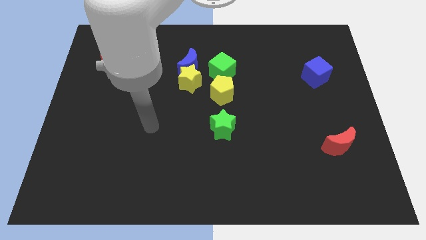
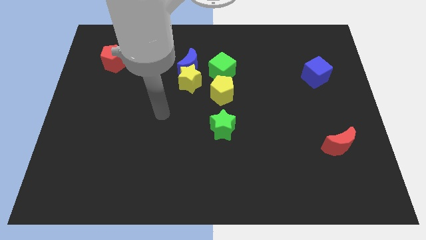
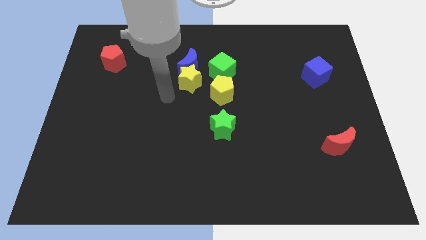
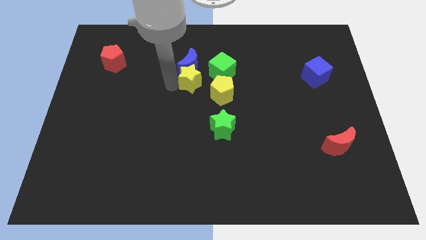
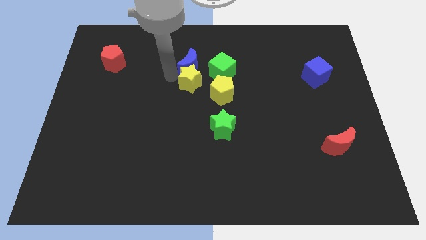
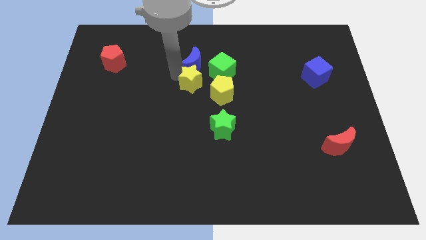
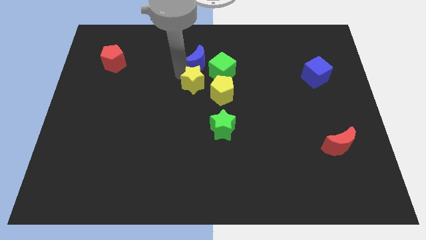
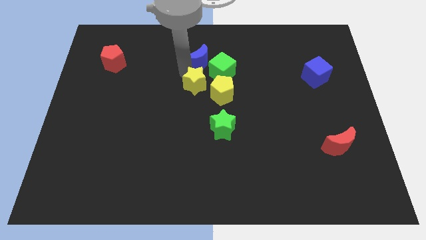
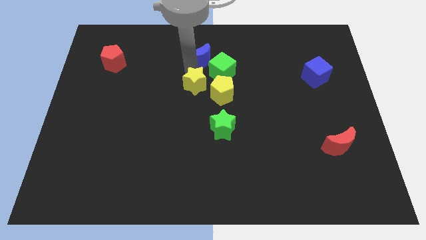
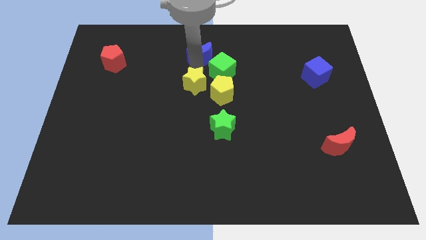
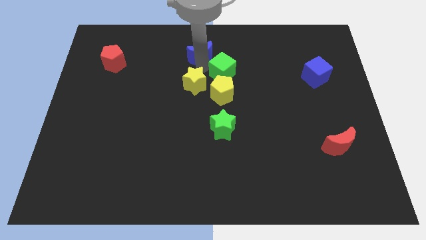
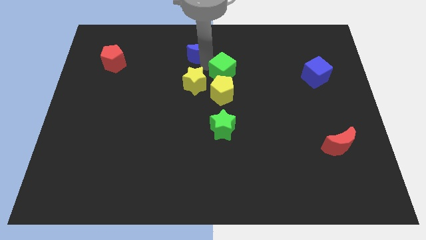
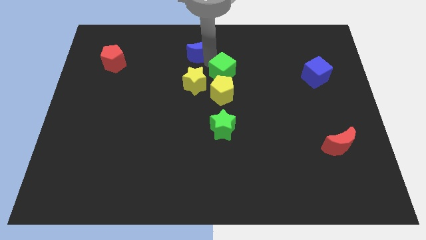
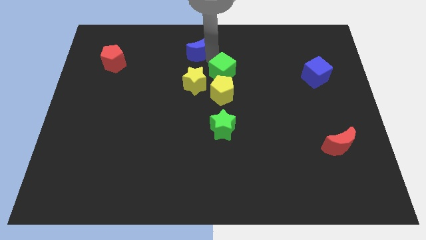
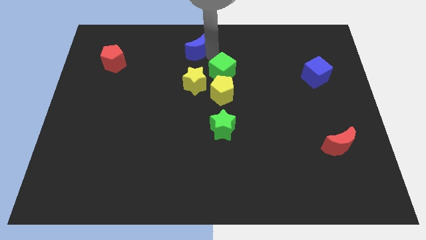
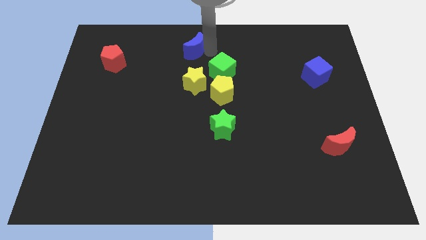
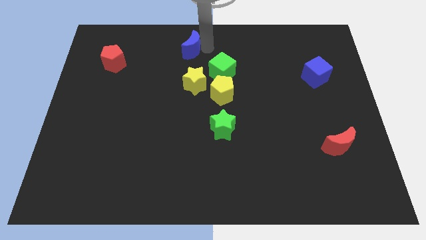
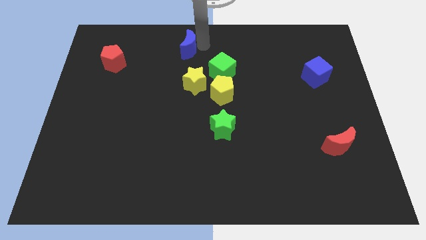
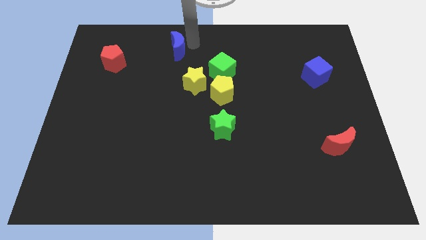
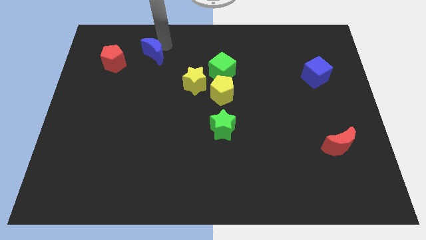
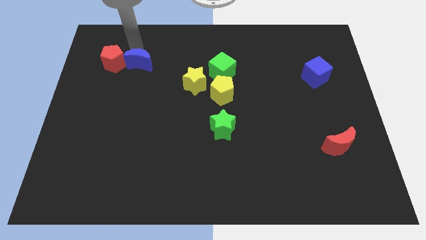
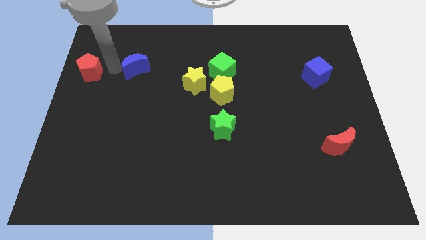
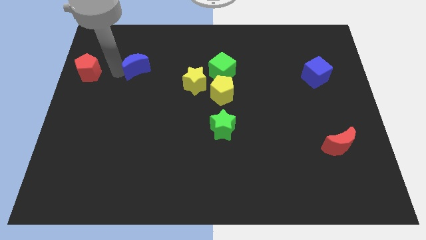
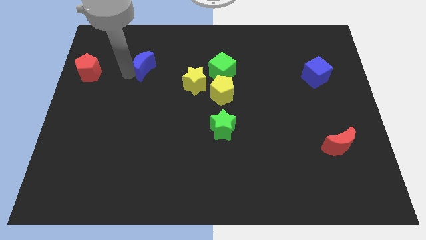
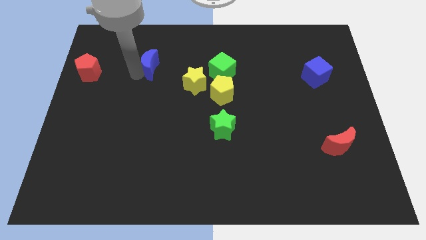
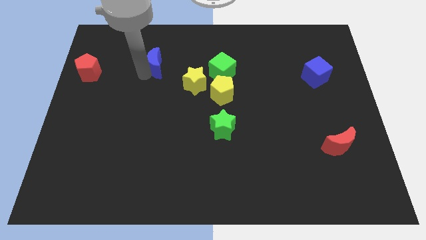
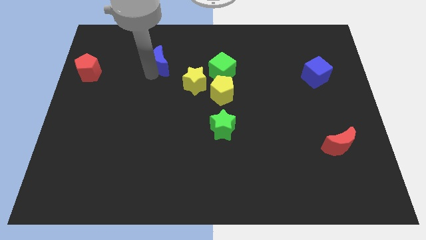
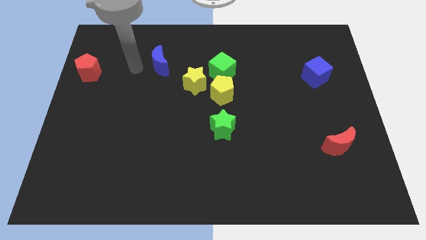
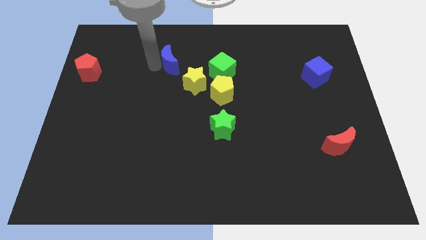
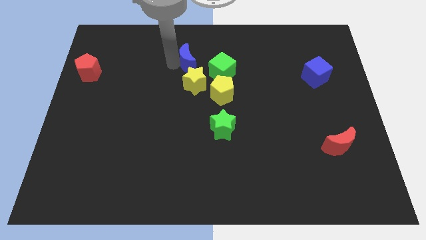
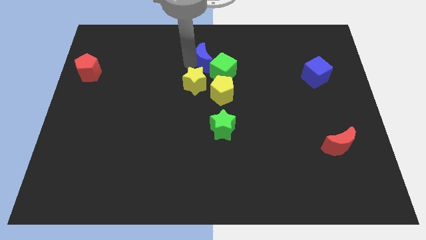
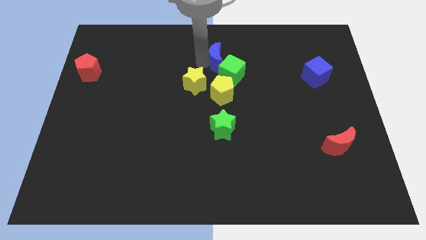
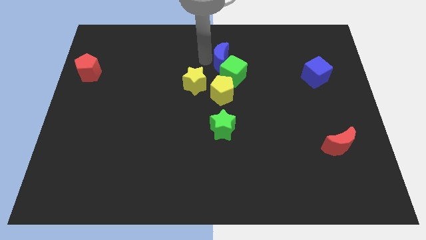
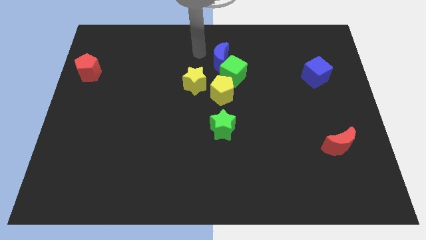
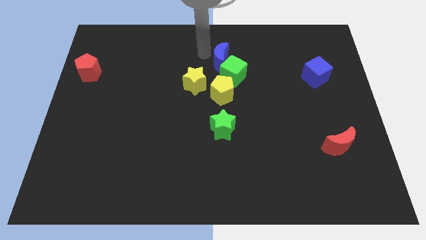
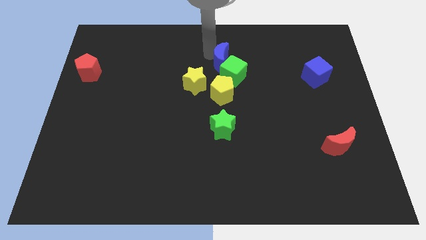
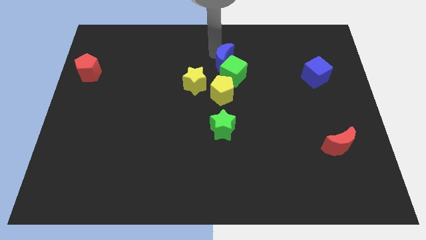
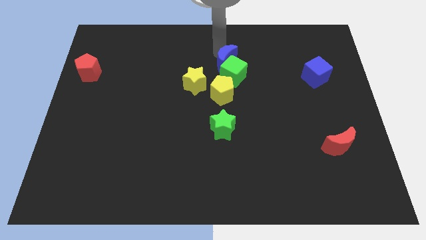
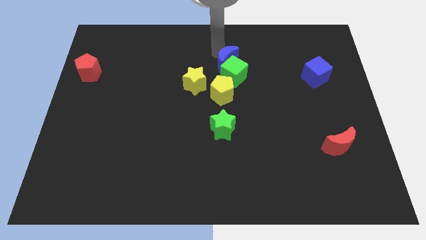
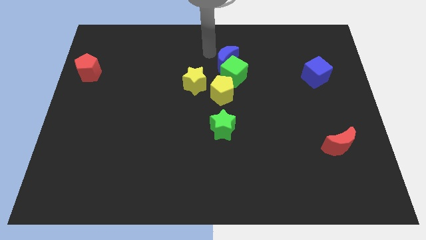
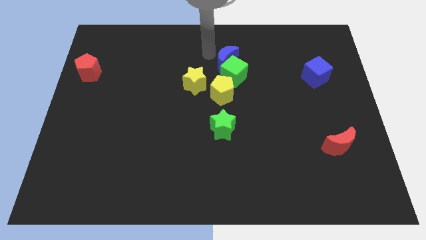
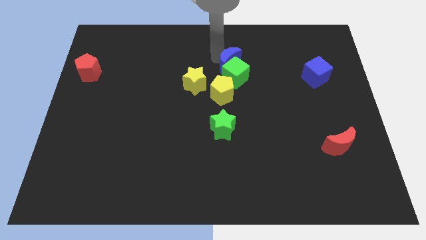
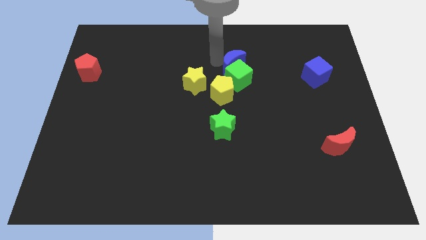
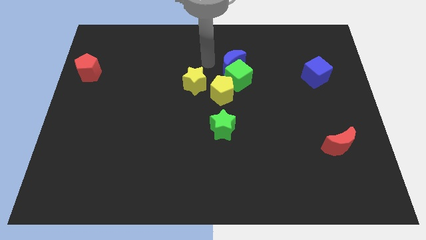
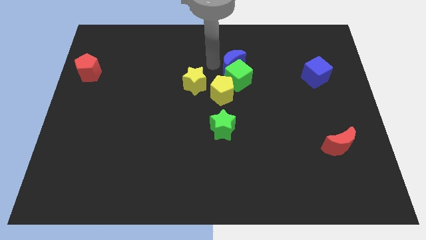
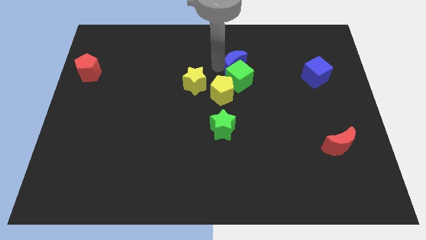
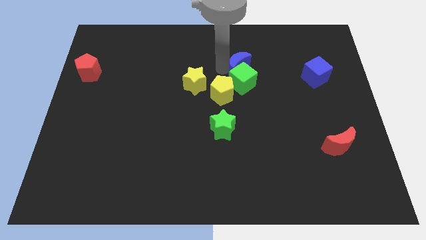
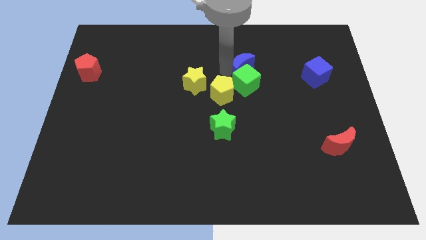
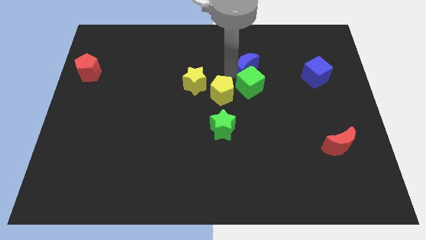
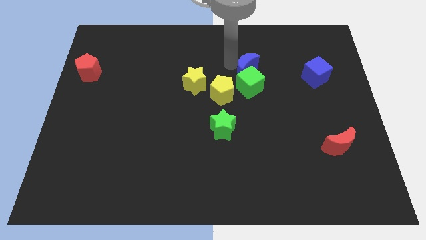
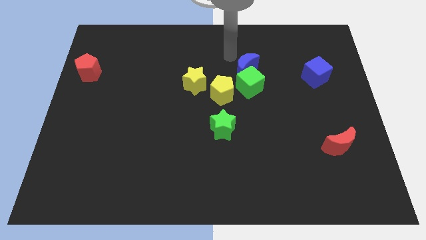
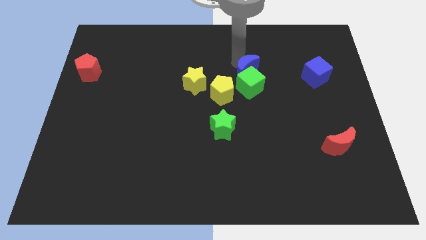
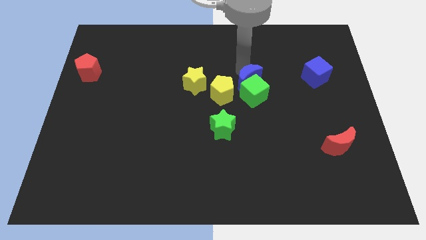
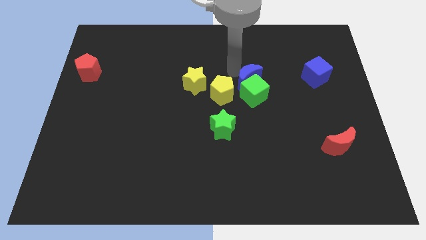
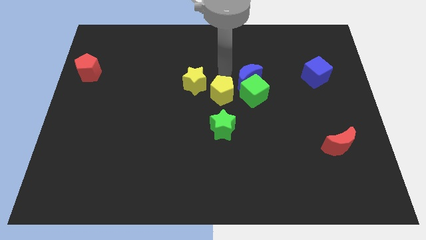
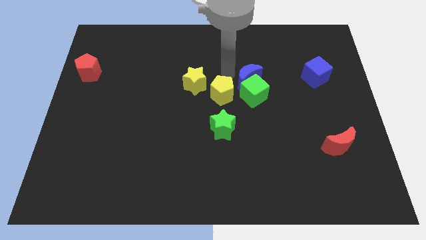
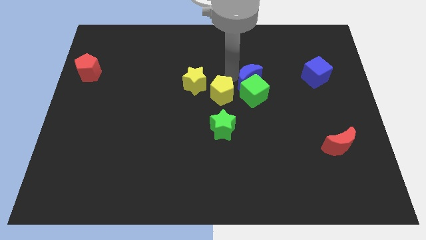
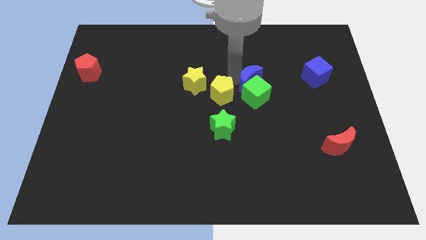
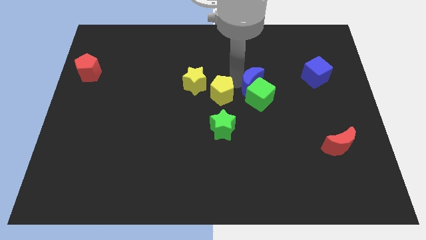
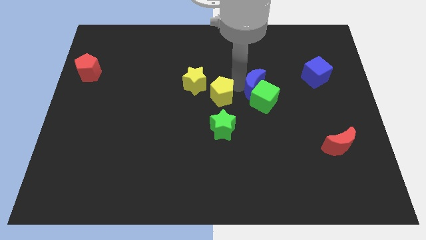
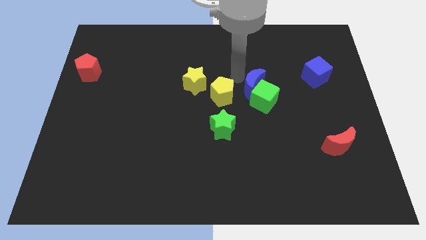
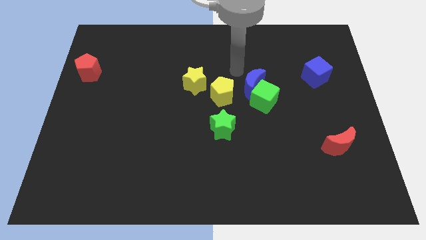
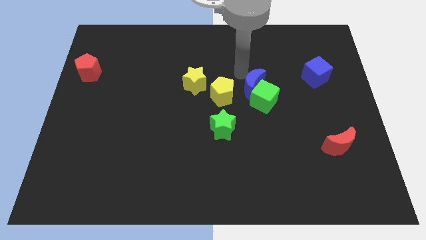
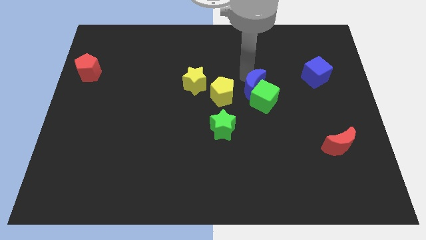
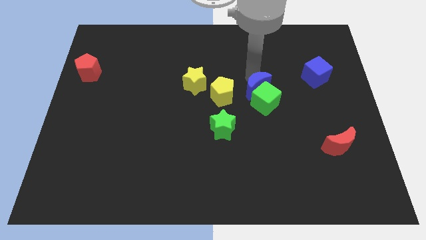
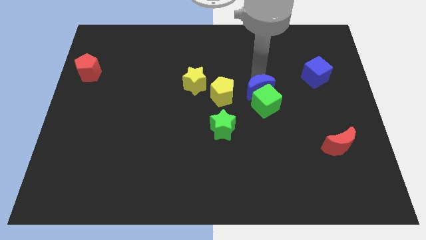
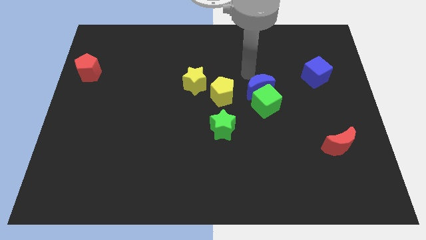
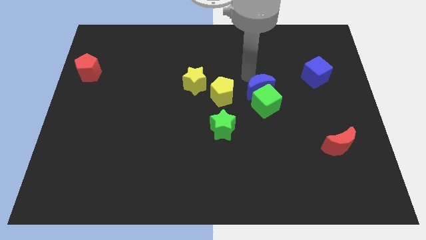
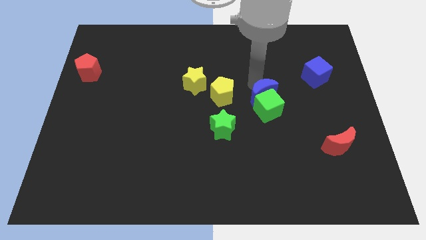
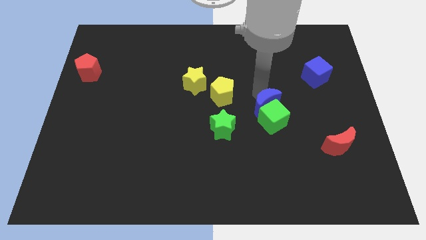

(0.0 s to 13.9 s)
slide the blue moon downwards and right diagonally

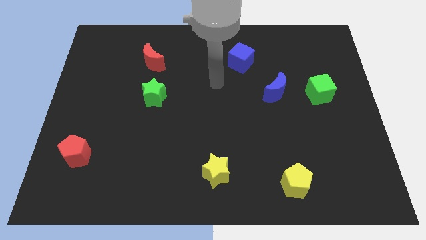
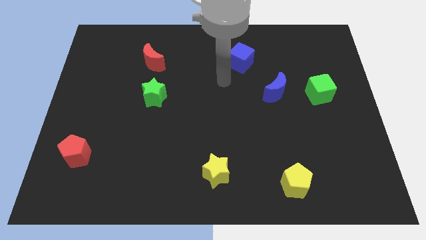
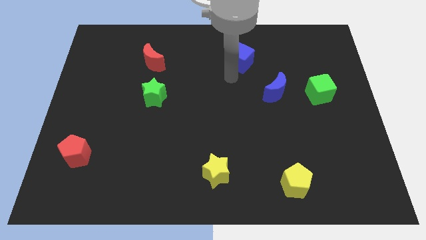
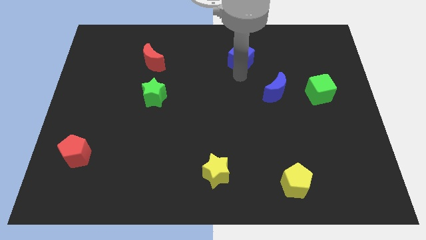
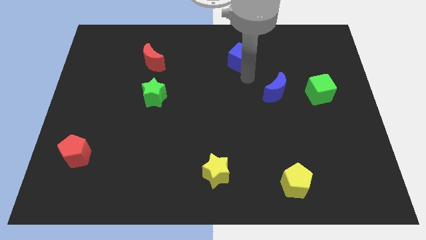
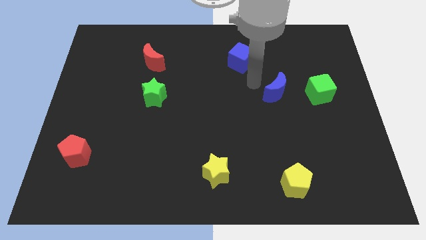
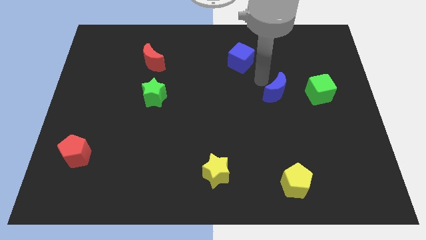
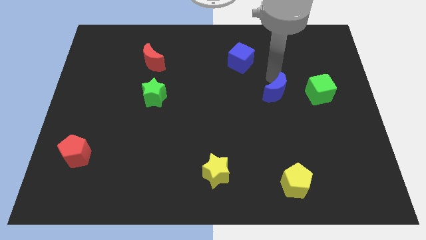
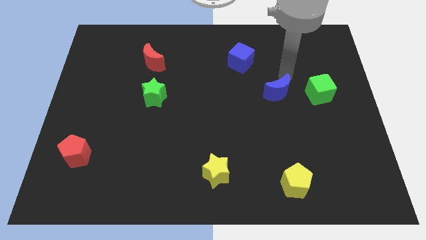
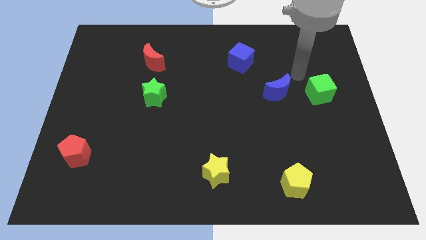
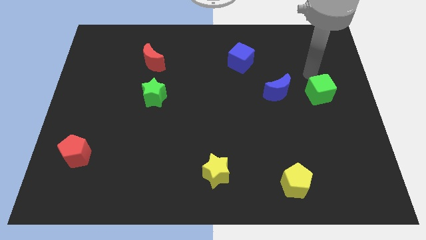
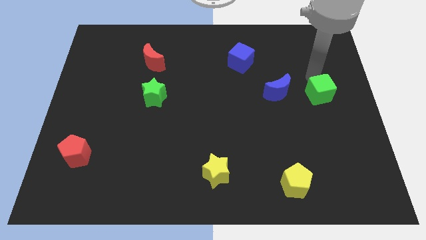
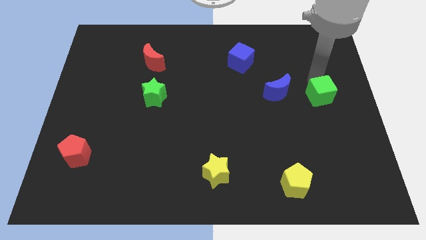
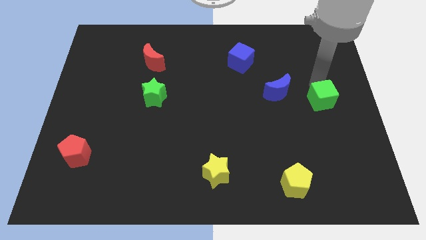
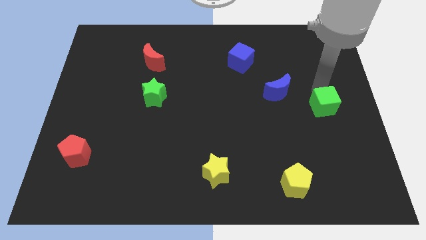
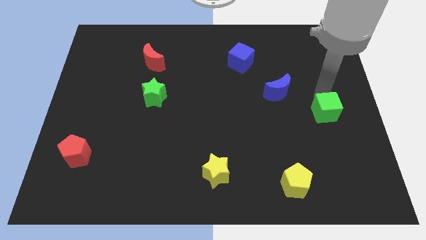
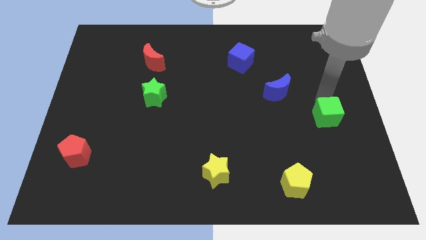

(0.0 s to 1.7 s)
slide the green cube downwards a bit
